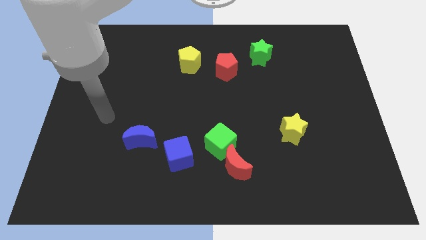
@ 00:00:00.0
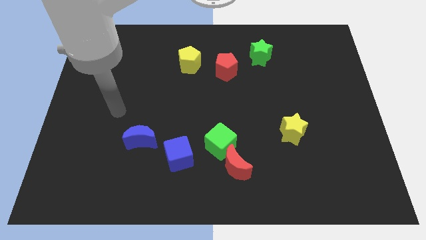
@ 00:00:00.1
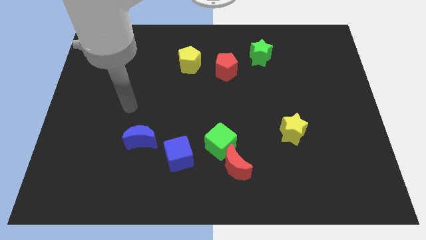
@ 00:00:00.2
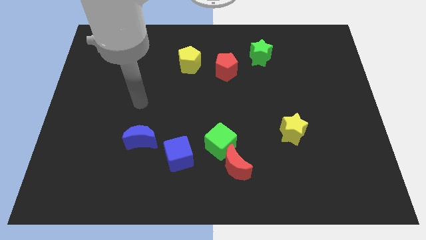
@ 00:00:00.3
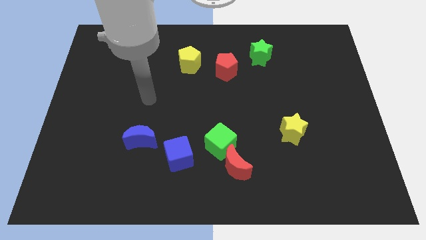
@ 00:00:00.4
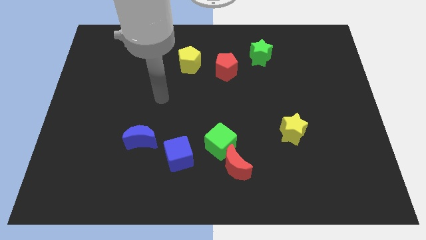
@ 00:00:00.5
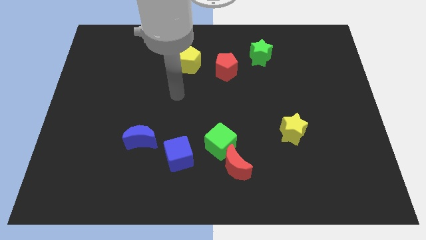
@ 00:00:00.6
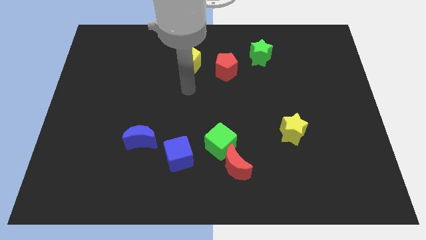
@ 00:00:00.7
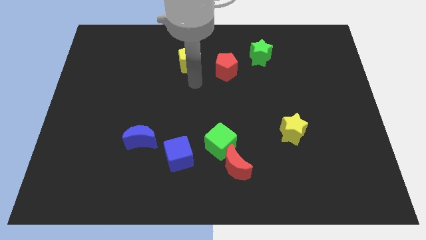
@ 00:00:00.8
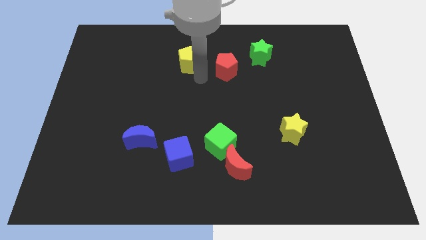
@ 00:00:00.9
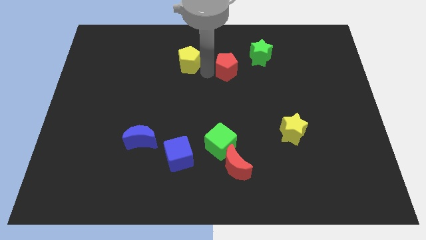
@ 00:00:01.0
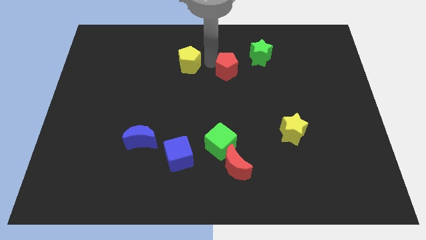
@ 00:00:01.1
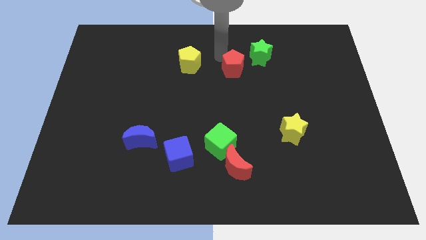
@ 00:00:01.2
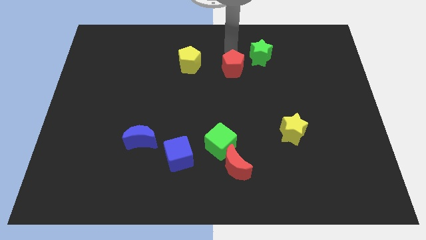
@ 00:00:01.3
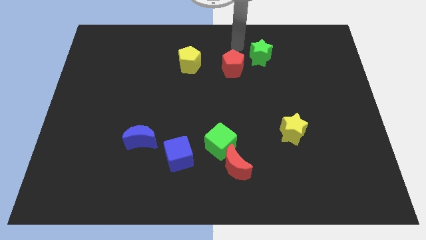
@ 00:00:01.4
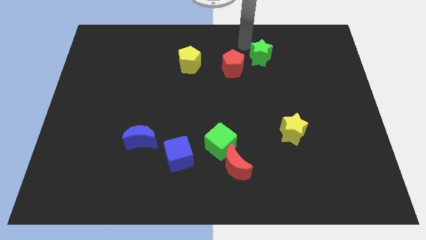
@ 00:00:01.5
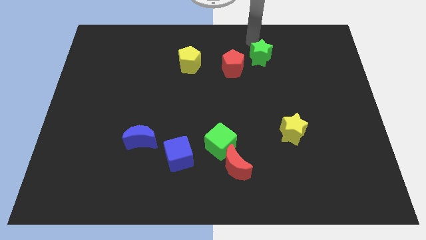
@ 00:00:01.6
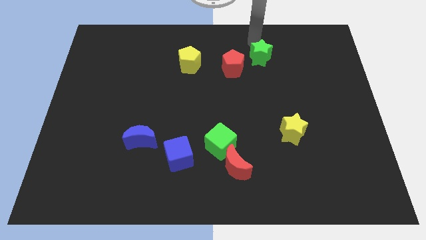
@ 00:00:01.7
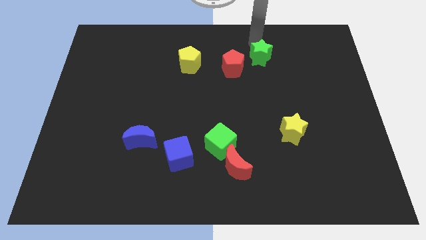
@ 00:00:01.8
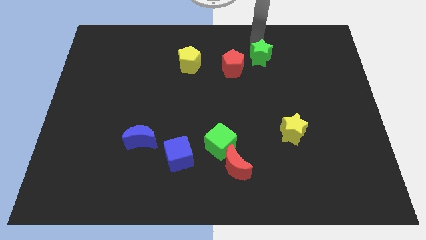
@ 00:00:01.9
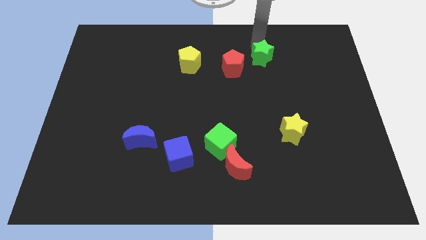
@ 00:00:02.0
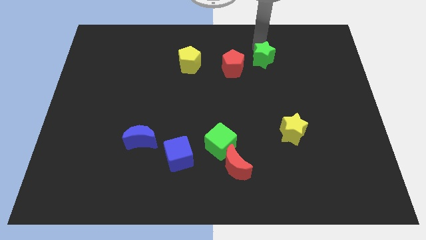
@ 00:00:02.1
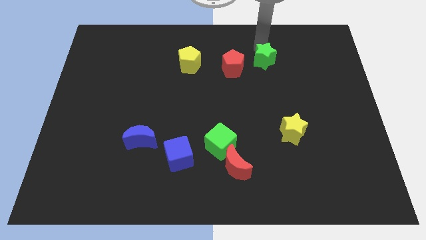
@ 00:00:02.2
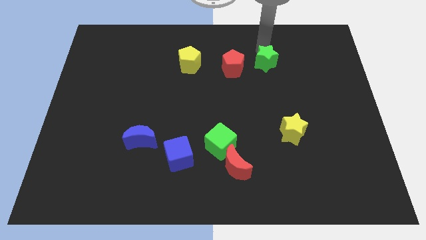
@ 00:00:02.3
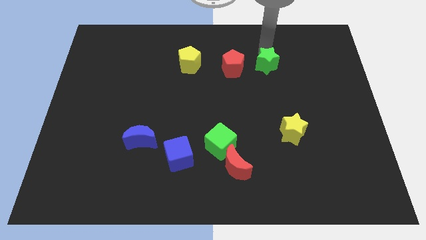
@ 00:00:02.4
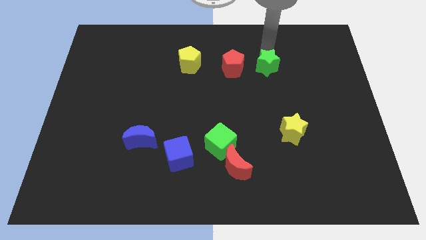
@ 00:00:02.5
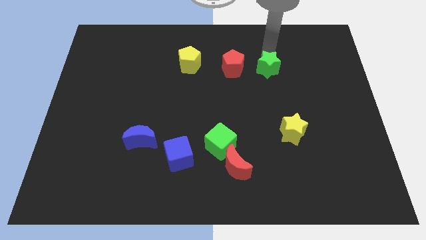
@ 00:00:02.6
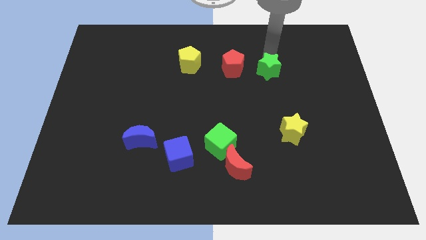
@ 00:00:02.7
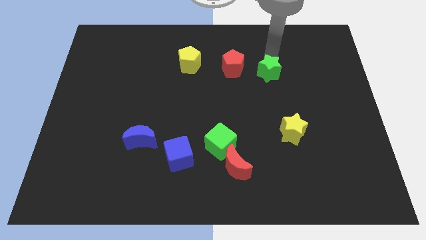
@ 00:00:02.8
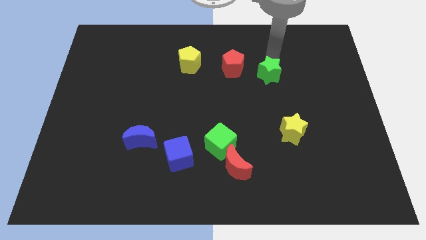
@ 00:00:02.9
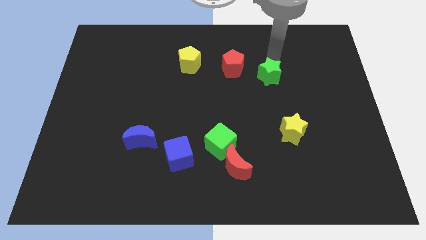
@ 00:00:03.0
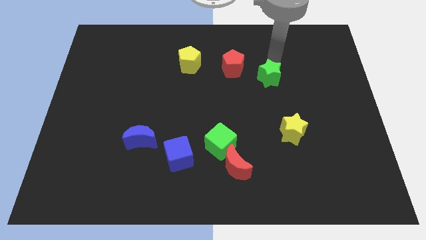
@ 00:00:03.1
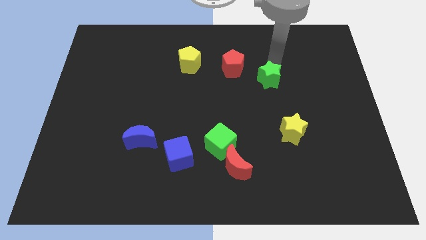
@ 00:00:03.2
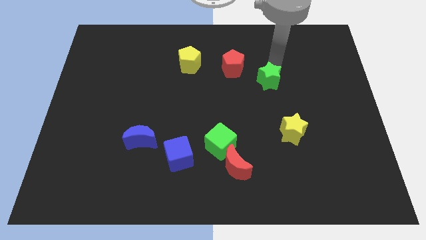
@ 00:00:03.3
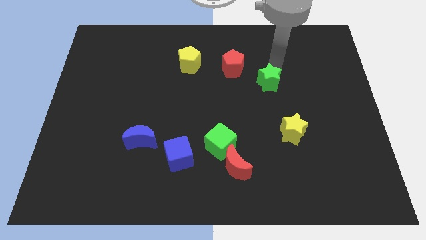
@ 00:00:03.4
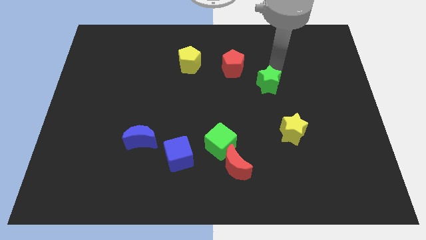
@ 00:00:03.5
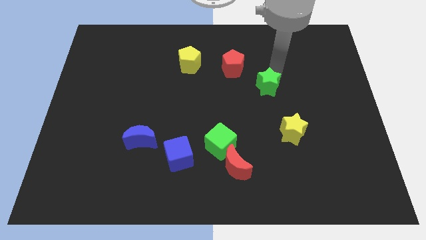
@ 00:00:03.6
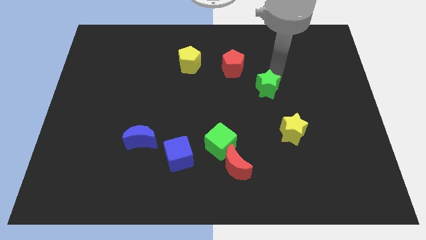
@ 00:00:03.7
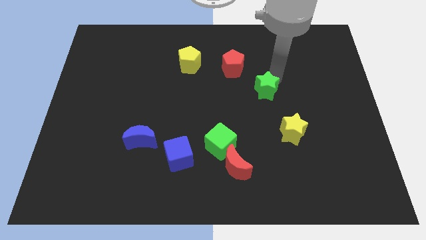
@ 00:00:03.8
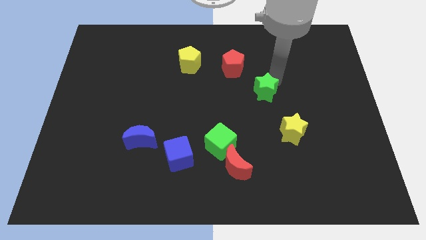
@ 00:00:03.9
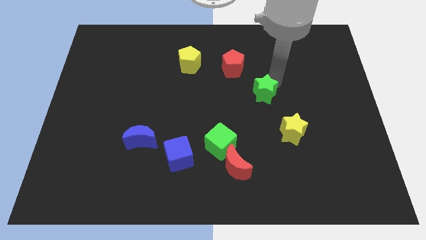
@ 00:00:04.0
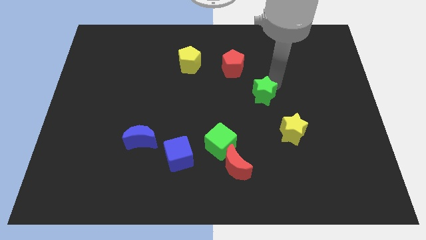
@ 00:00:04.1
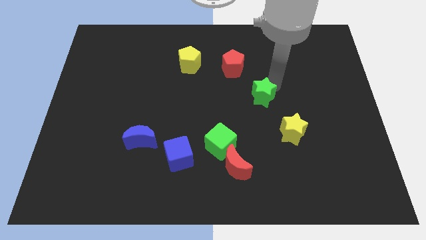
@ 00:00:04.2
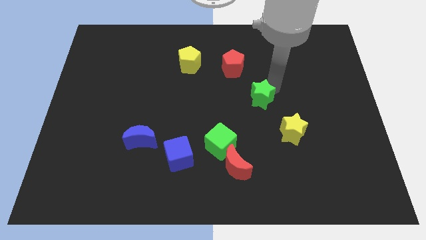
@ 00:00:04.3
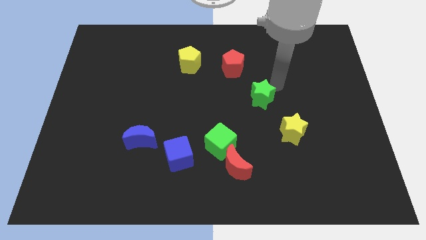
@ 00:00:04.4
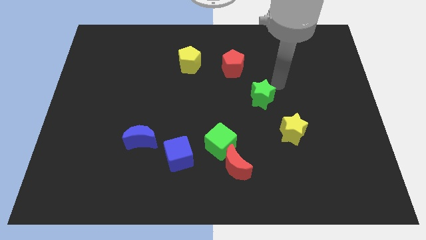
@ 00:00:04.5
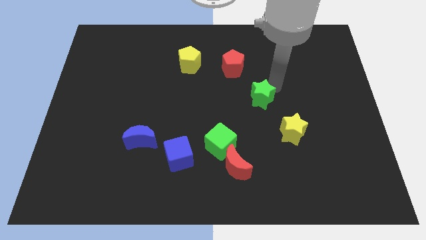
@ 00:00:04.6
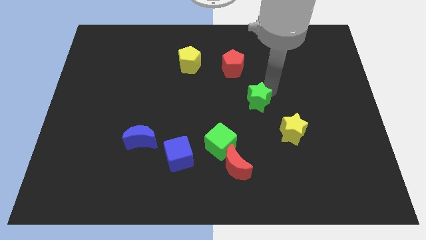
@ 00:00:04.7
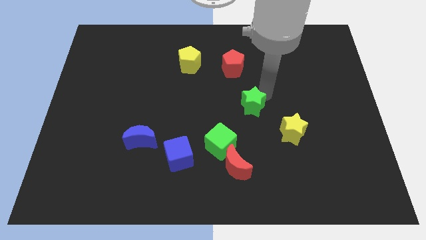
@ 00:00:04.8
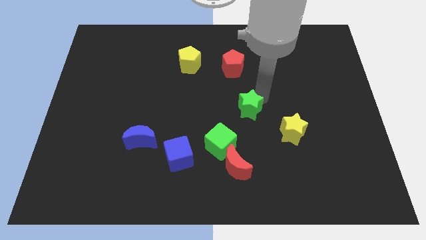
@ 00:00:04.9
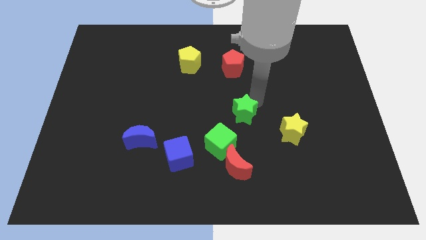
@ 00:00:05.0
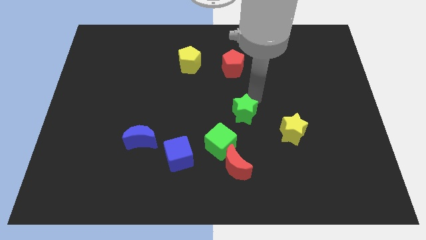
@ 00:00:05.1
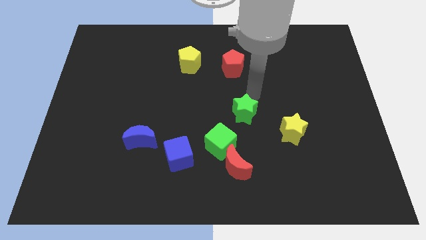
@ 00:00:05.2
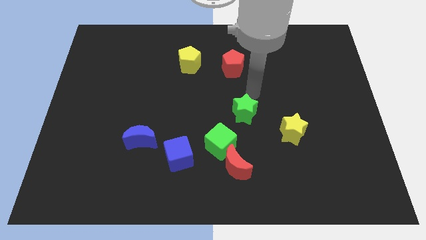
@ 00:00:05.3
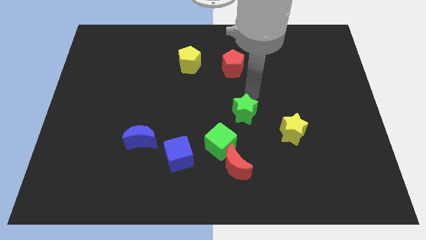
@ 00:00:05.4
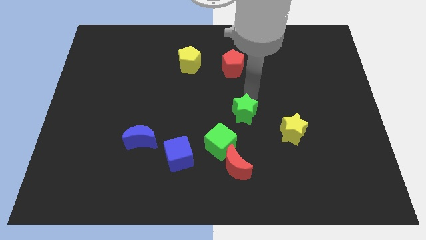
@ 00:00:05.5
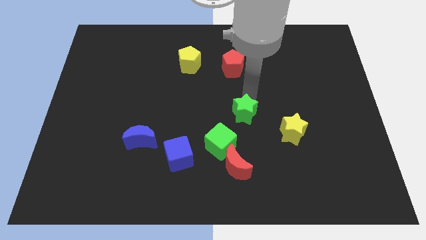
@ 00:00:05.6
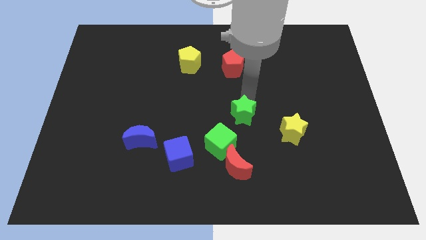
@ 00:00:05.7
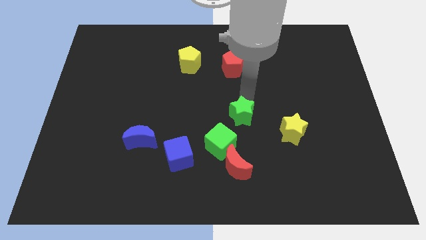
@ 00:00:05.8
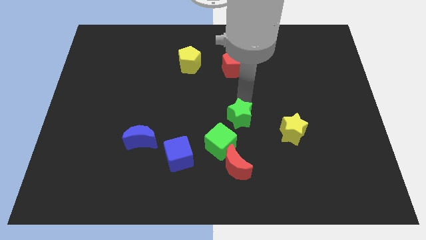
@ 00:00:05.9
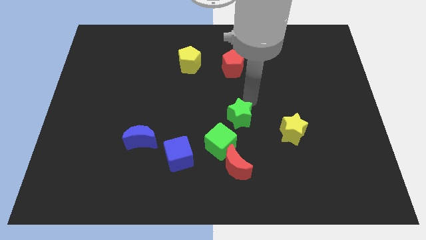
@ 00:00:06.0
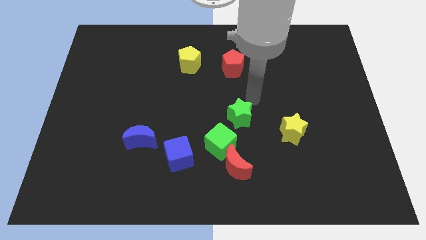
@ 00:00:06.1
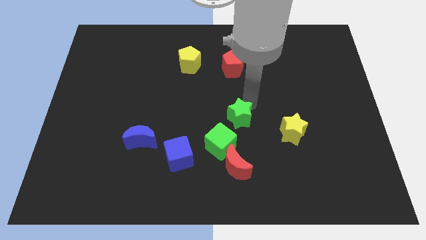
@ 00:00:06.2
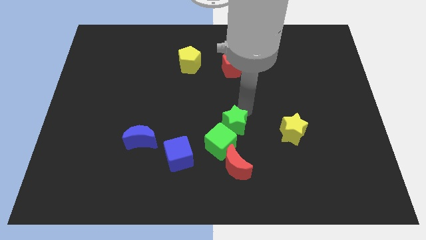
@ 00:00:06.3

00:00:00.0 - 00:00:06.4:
slide the green star towards the green cube

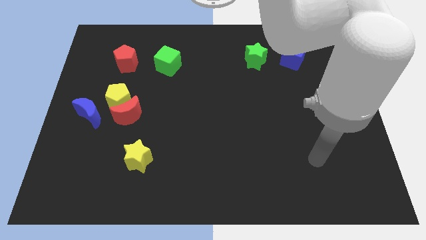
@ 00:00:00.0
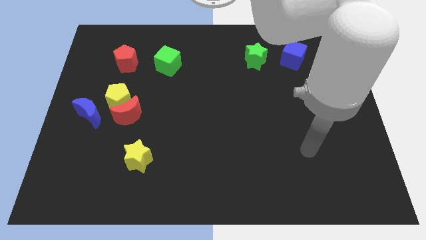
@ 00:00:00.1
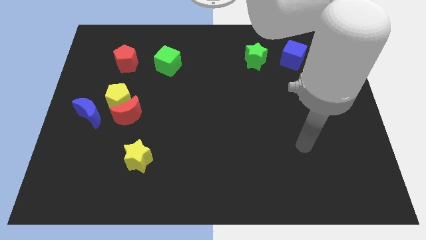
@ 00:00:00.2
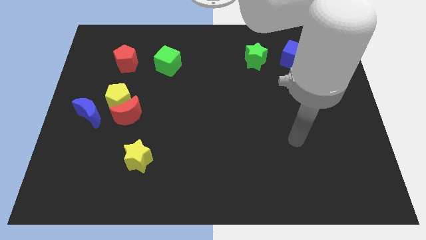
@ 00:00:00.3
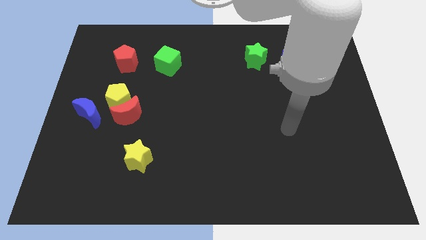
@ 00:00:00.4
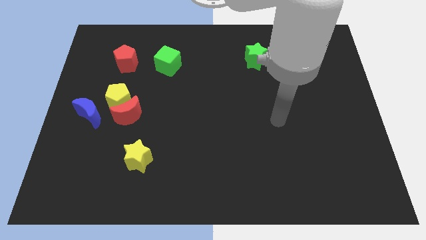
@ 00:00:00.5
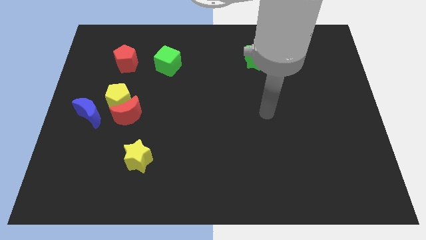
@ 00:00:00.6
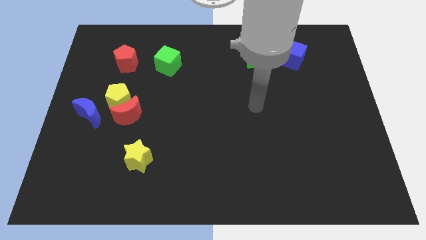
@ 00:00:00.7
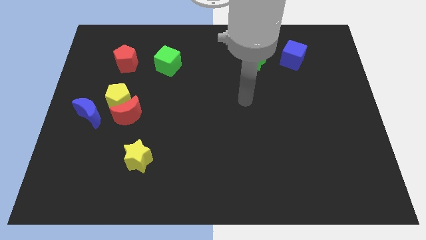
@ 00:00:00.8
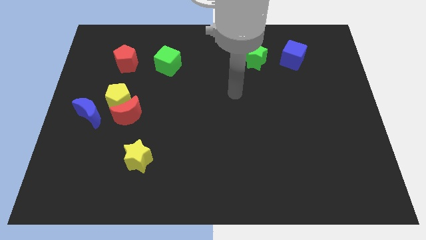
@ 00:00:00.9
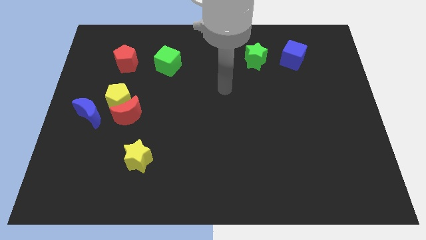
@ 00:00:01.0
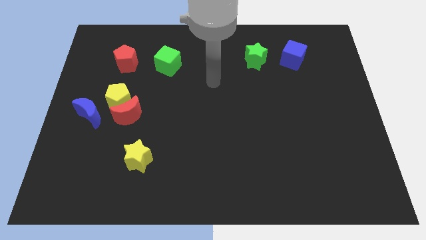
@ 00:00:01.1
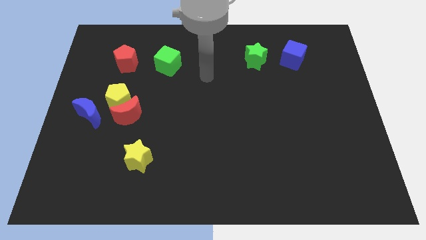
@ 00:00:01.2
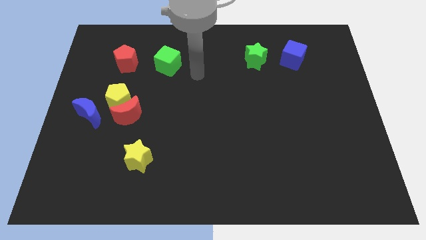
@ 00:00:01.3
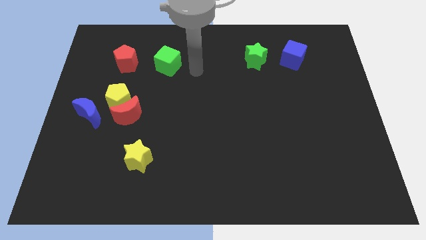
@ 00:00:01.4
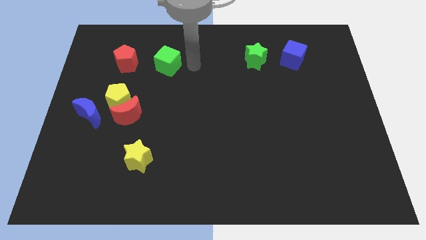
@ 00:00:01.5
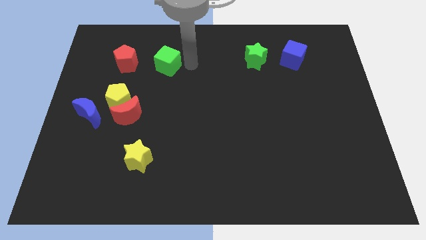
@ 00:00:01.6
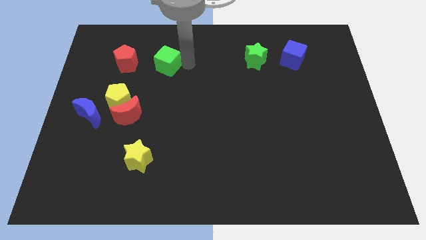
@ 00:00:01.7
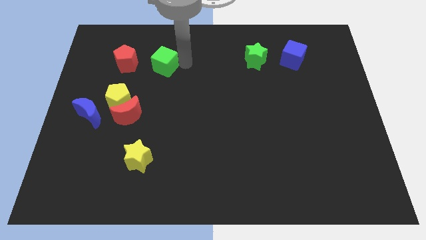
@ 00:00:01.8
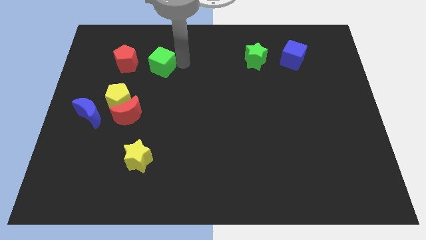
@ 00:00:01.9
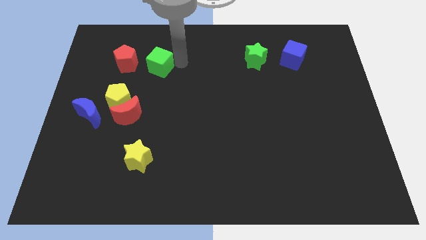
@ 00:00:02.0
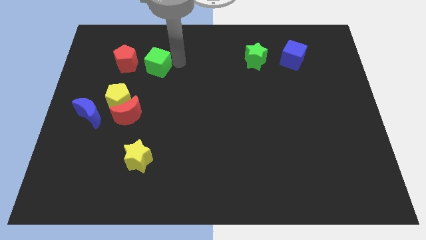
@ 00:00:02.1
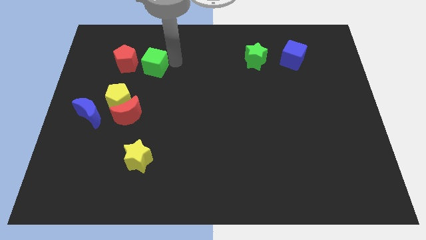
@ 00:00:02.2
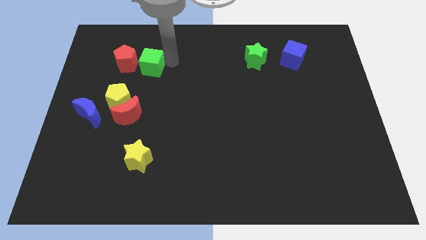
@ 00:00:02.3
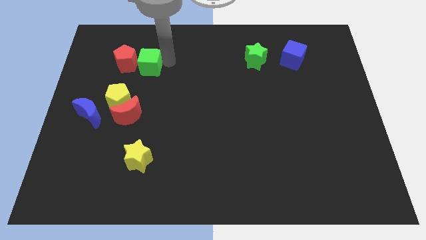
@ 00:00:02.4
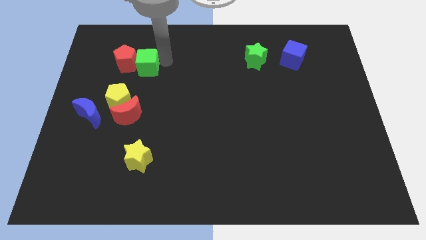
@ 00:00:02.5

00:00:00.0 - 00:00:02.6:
push the green cube towards the red pentagon
